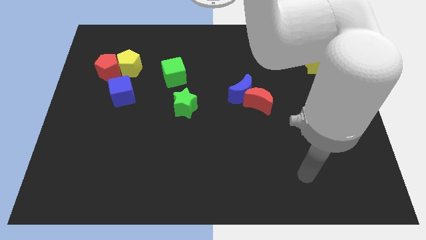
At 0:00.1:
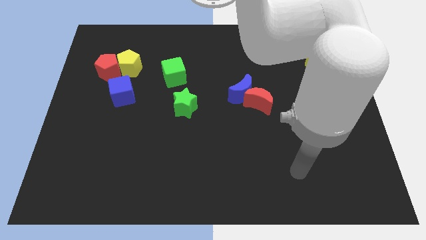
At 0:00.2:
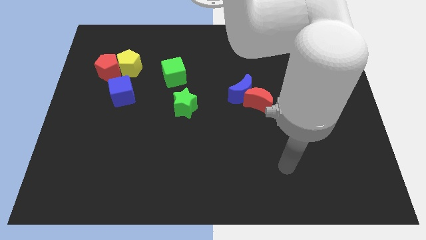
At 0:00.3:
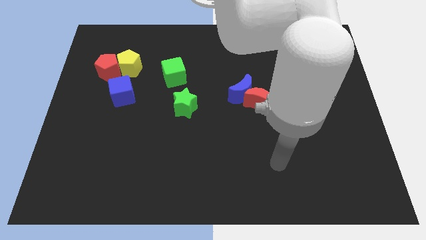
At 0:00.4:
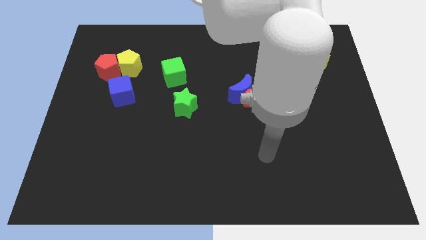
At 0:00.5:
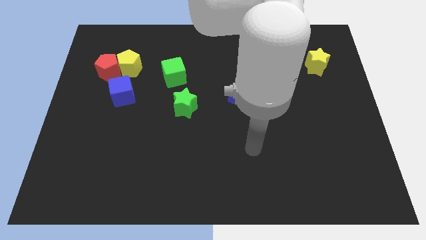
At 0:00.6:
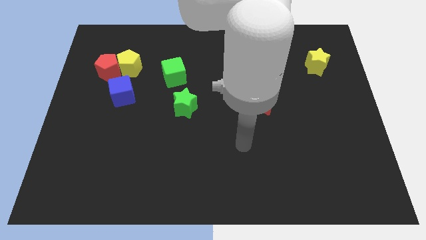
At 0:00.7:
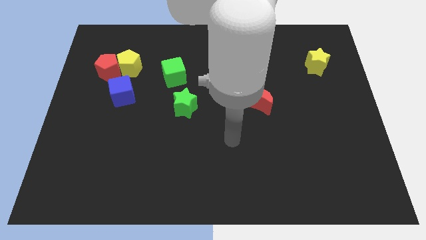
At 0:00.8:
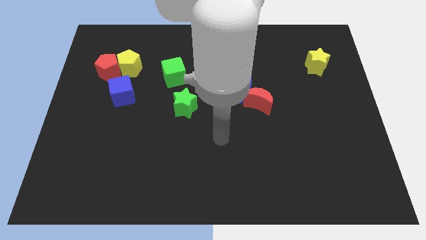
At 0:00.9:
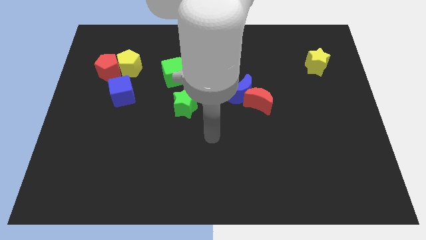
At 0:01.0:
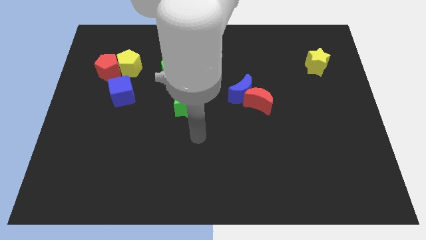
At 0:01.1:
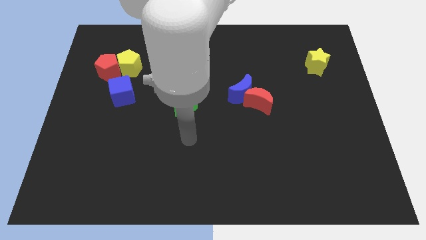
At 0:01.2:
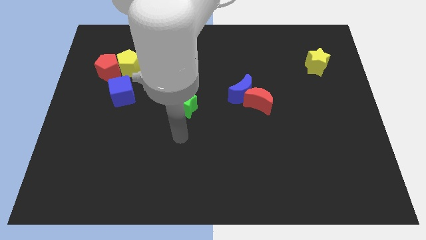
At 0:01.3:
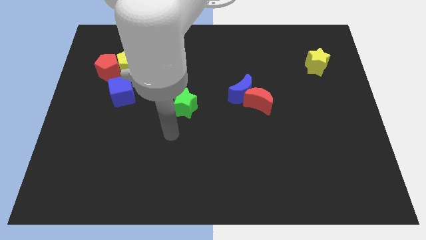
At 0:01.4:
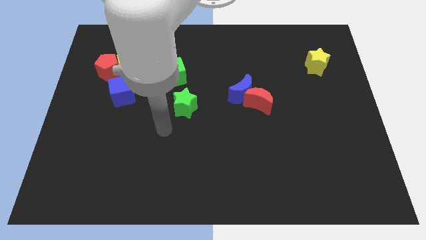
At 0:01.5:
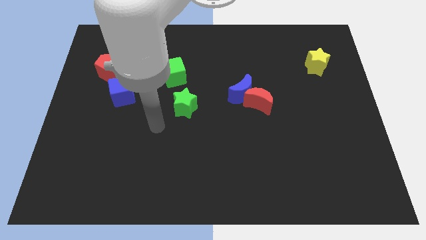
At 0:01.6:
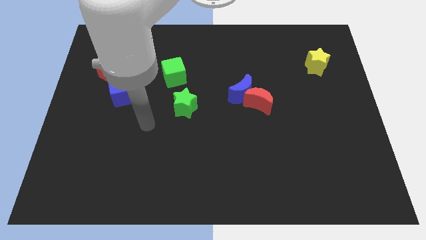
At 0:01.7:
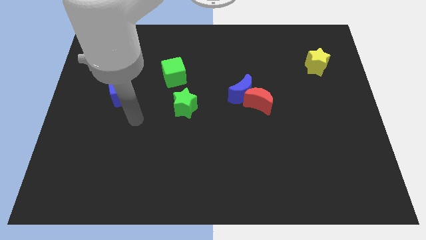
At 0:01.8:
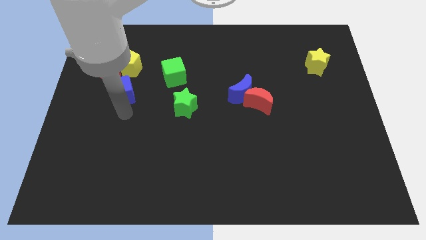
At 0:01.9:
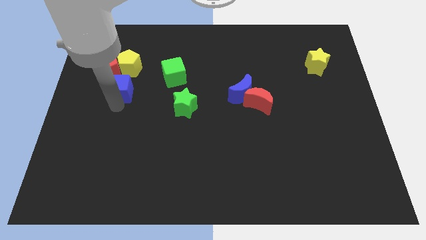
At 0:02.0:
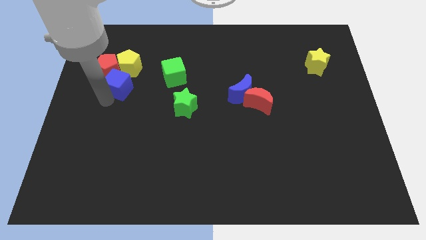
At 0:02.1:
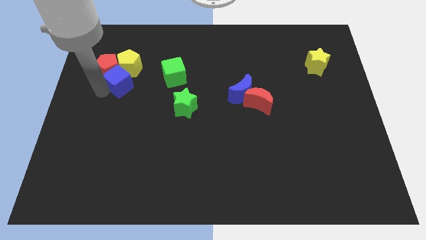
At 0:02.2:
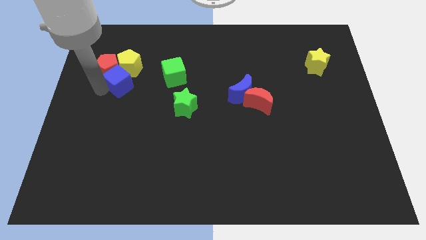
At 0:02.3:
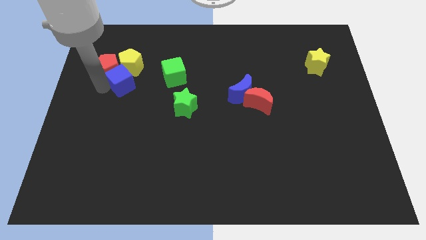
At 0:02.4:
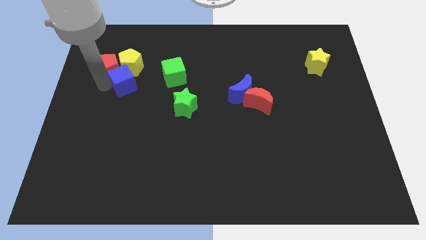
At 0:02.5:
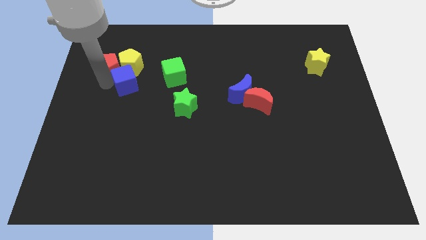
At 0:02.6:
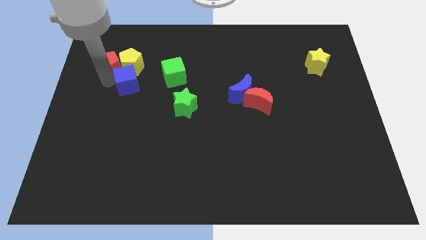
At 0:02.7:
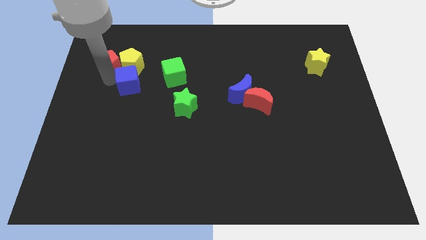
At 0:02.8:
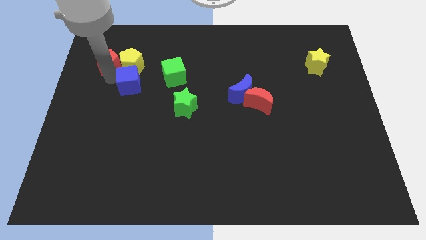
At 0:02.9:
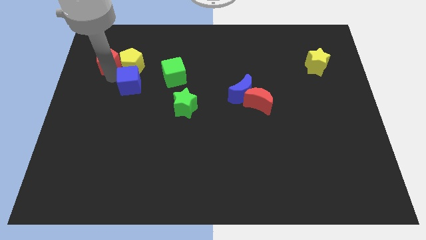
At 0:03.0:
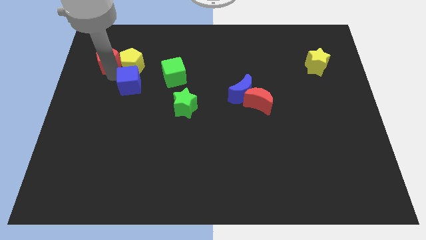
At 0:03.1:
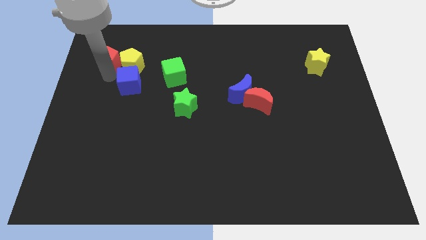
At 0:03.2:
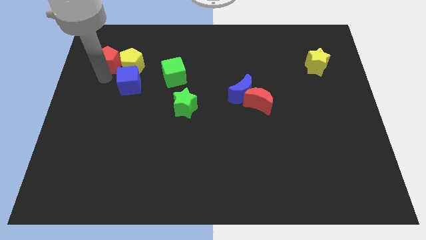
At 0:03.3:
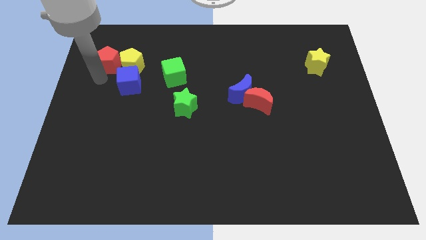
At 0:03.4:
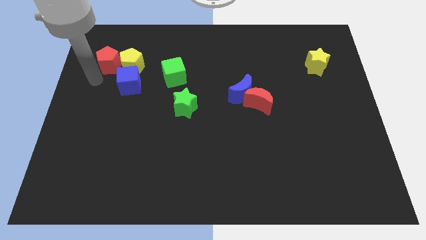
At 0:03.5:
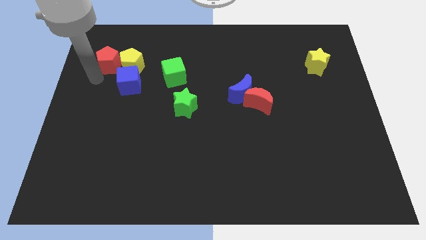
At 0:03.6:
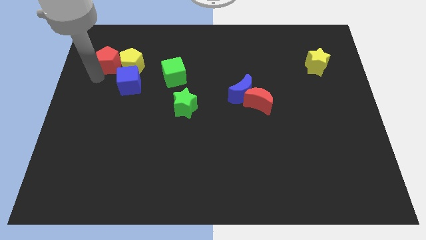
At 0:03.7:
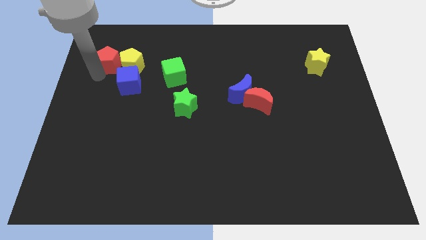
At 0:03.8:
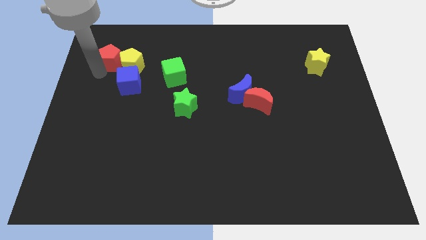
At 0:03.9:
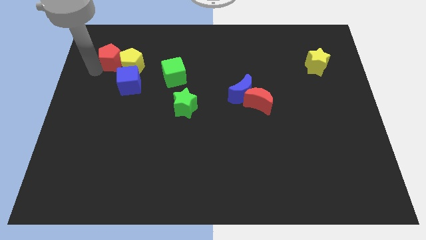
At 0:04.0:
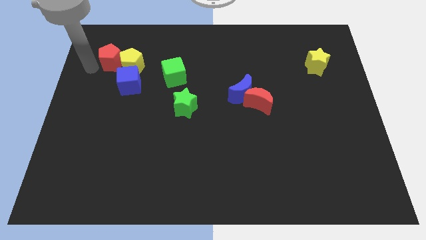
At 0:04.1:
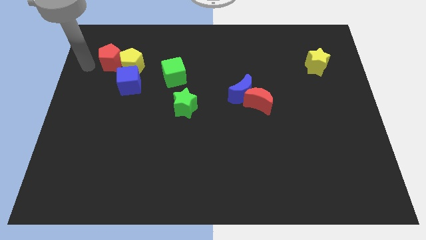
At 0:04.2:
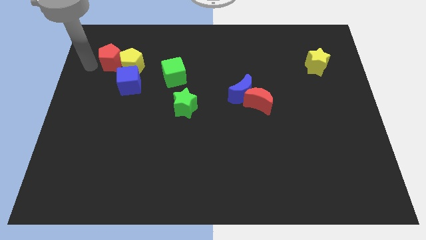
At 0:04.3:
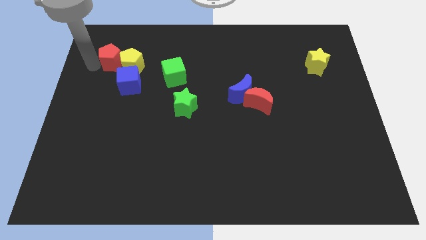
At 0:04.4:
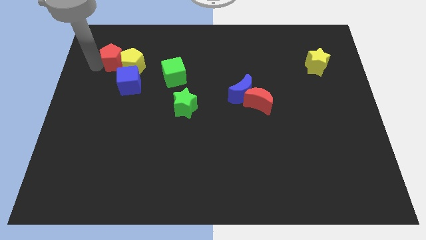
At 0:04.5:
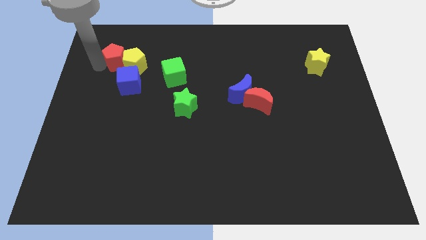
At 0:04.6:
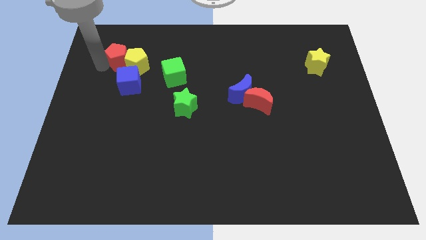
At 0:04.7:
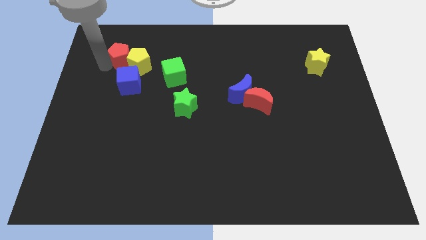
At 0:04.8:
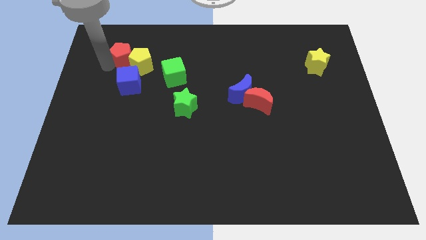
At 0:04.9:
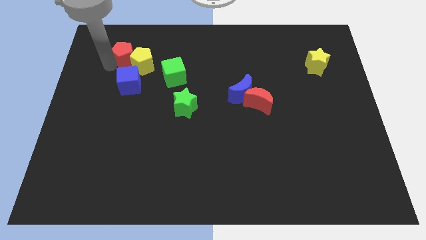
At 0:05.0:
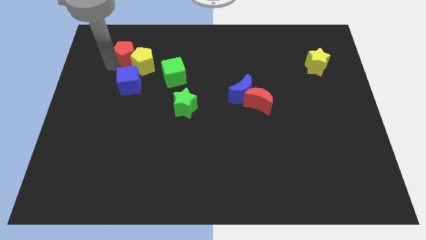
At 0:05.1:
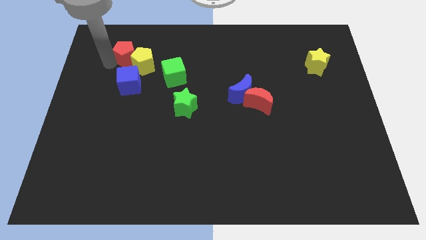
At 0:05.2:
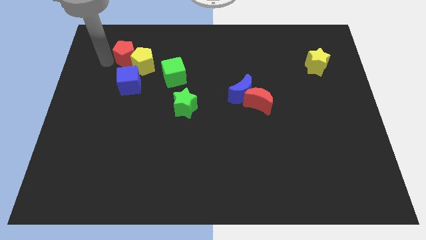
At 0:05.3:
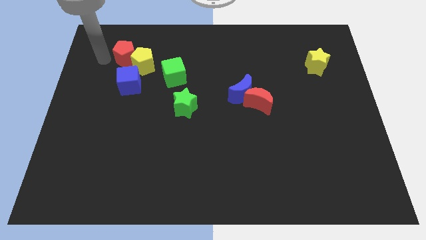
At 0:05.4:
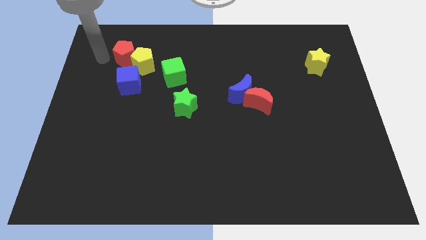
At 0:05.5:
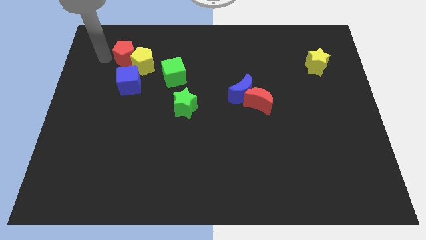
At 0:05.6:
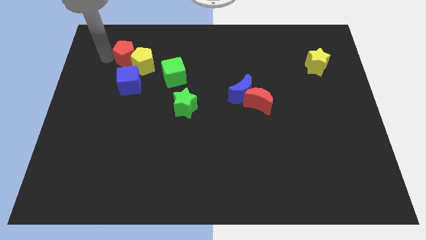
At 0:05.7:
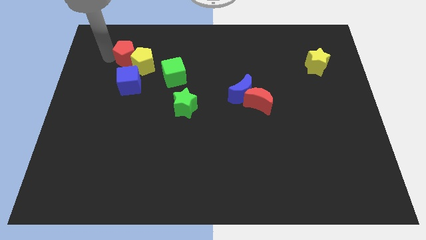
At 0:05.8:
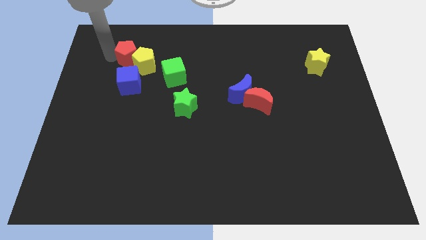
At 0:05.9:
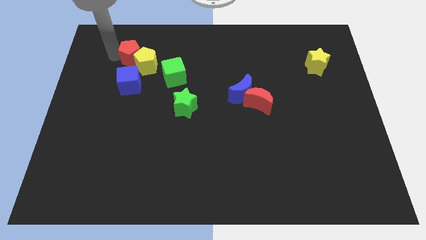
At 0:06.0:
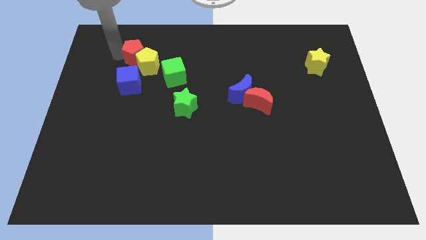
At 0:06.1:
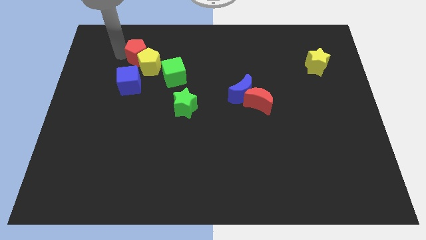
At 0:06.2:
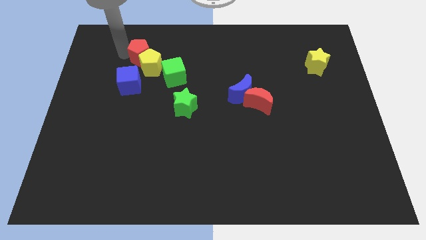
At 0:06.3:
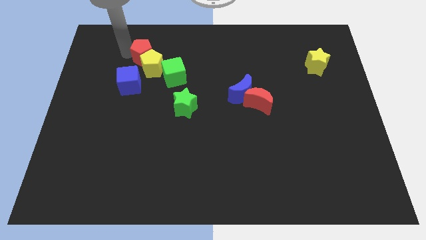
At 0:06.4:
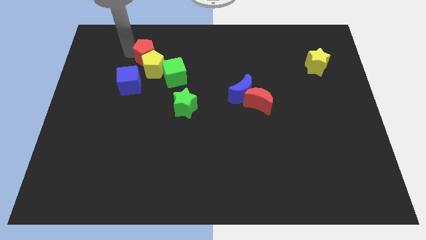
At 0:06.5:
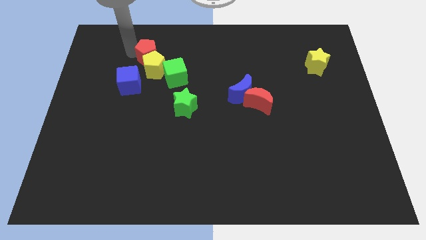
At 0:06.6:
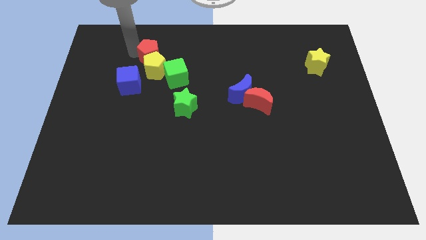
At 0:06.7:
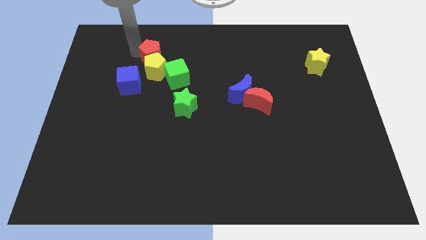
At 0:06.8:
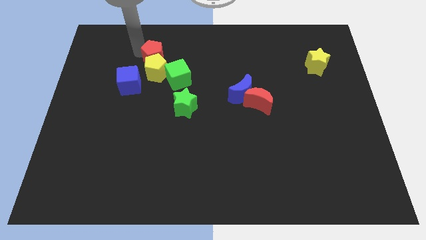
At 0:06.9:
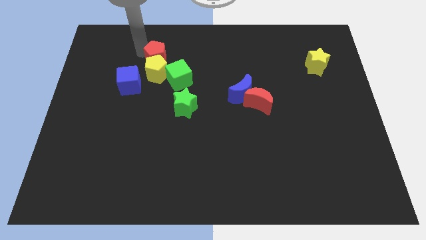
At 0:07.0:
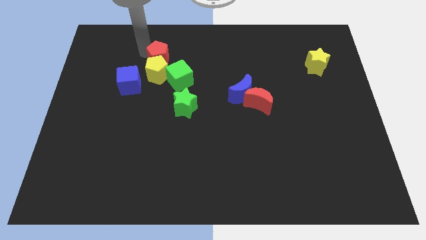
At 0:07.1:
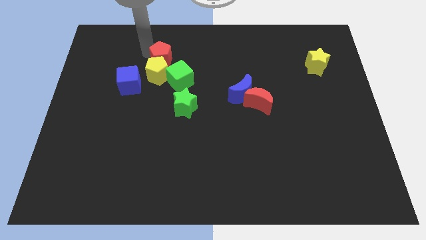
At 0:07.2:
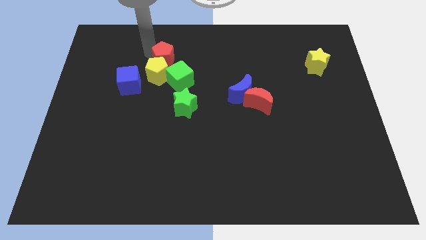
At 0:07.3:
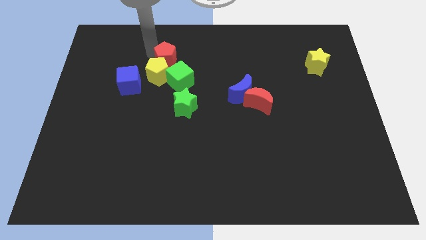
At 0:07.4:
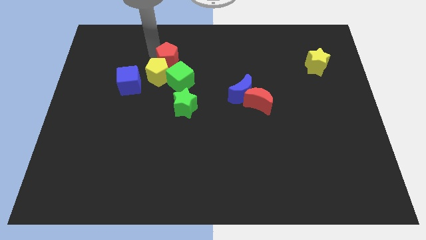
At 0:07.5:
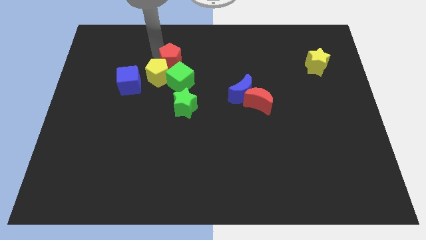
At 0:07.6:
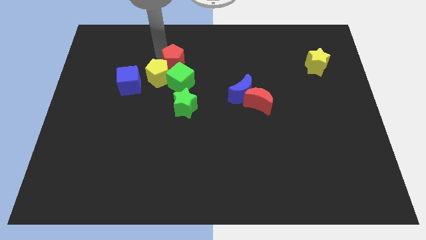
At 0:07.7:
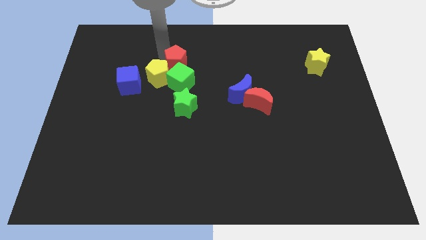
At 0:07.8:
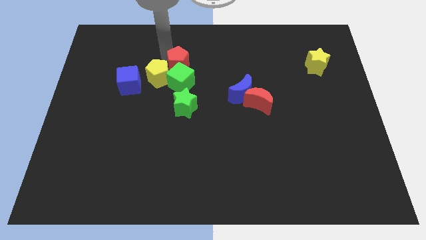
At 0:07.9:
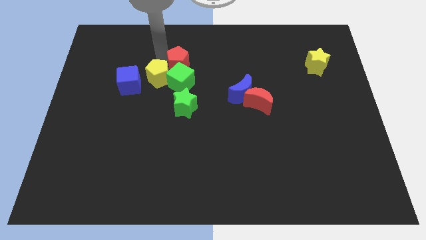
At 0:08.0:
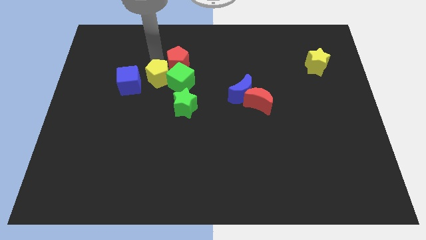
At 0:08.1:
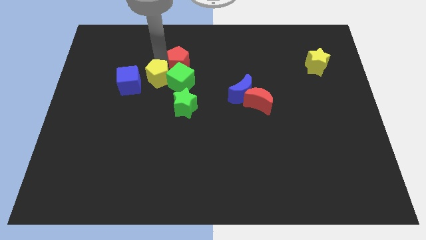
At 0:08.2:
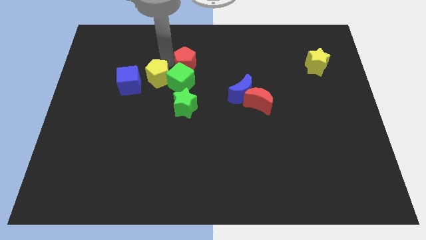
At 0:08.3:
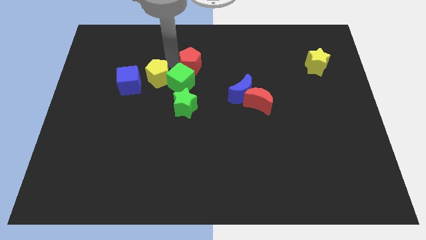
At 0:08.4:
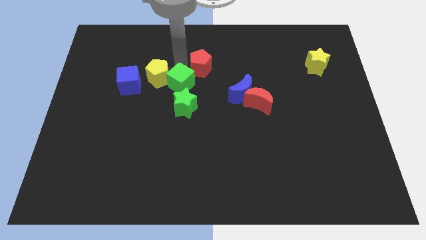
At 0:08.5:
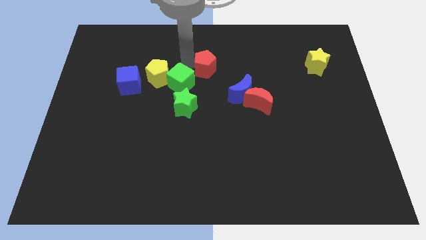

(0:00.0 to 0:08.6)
push the red pentagon diagonally up and to the left of the blue moon
